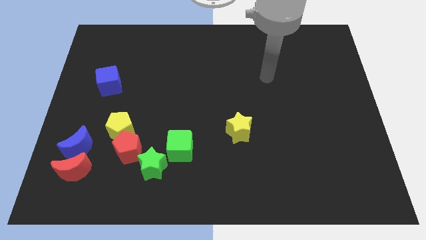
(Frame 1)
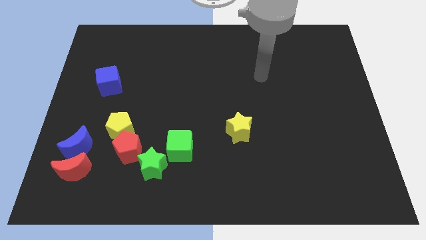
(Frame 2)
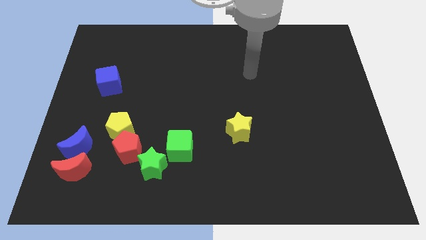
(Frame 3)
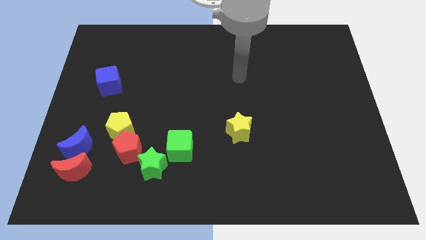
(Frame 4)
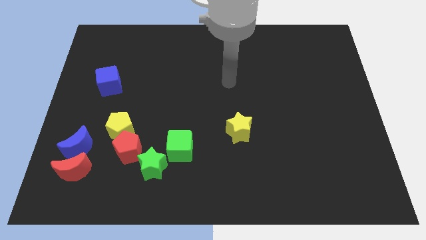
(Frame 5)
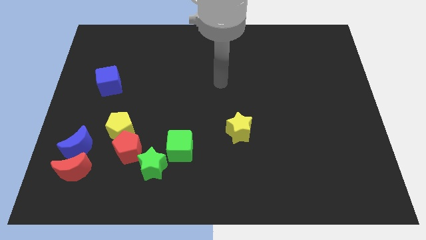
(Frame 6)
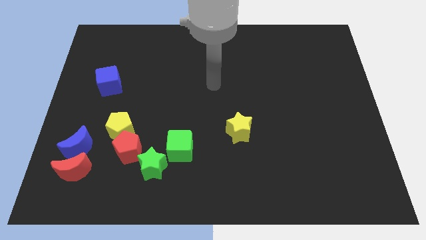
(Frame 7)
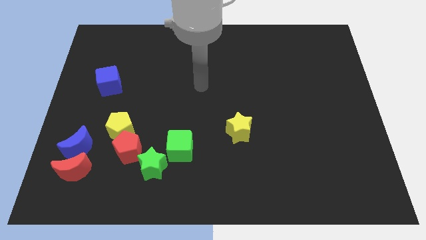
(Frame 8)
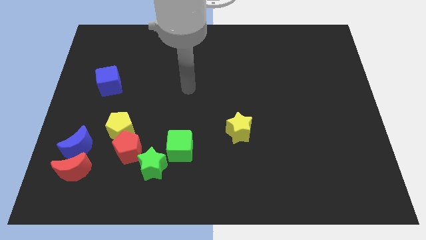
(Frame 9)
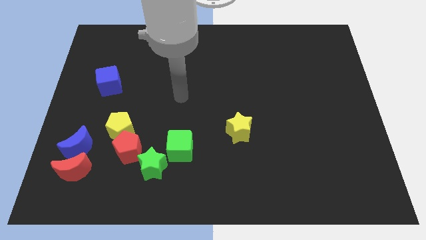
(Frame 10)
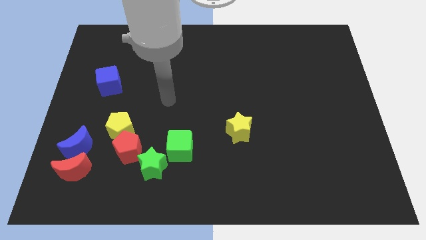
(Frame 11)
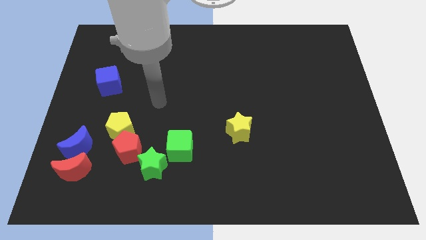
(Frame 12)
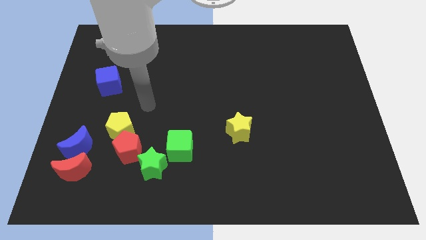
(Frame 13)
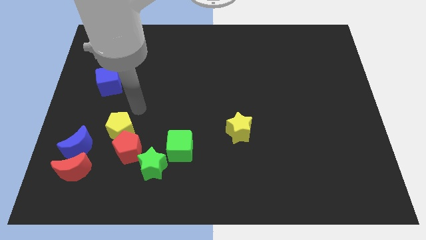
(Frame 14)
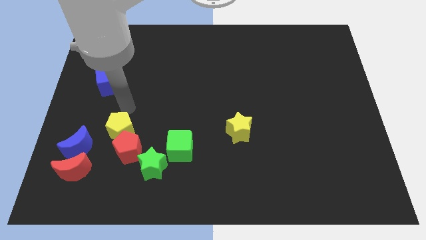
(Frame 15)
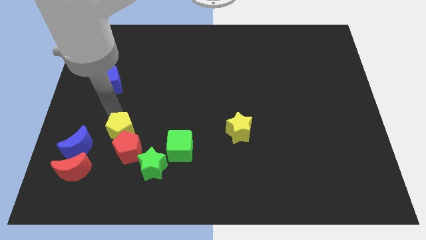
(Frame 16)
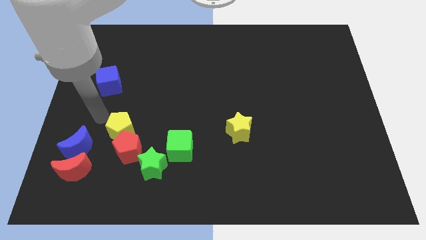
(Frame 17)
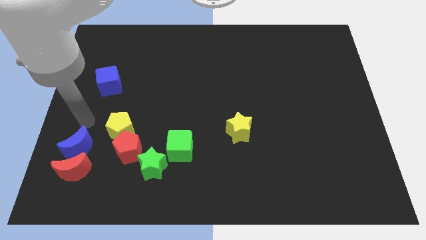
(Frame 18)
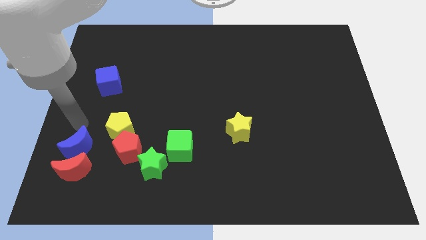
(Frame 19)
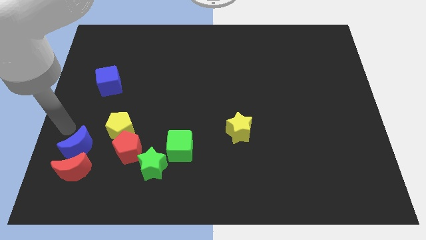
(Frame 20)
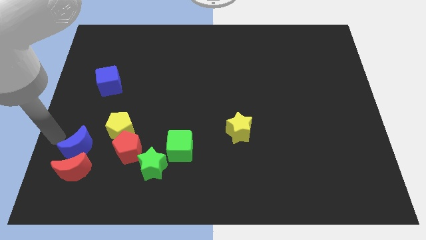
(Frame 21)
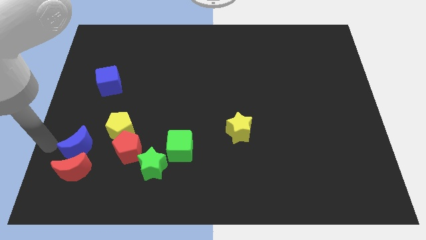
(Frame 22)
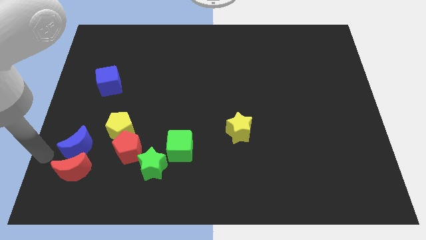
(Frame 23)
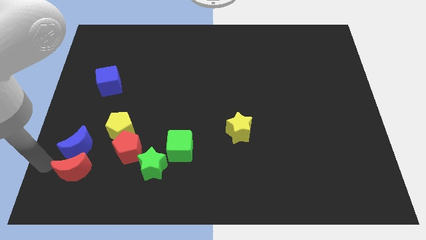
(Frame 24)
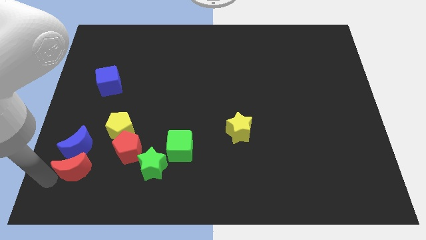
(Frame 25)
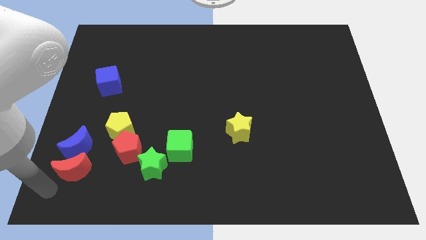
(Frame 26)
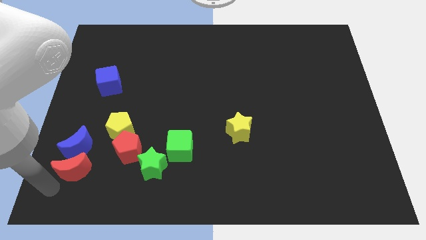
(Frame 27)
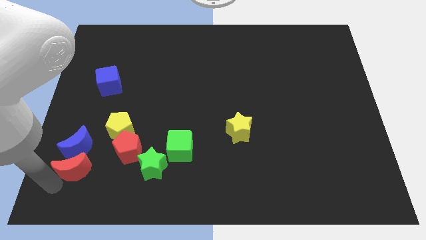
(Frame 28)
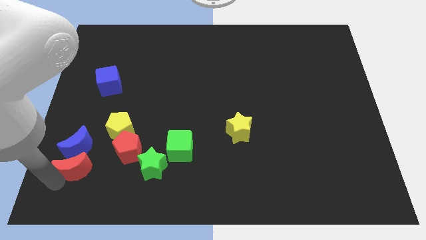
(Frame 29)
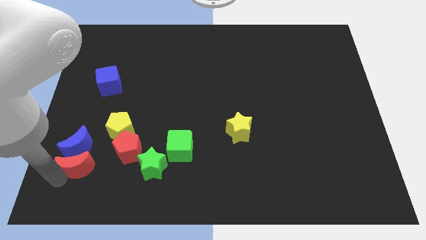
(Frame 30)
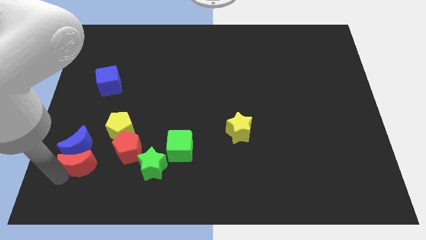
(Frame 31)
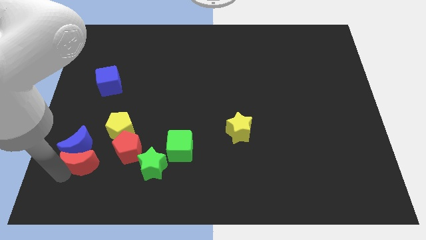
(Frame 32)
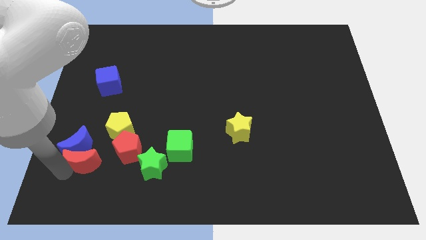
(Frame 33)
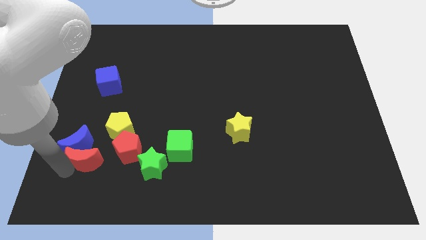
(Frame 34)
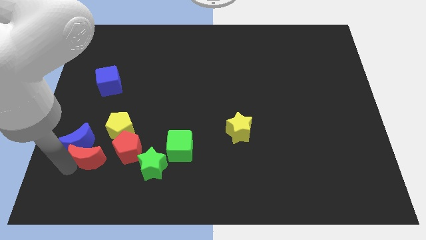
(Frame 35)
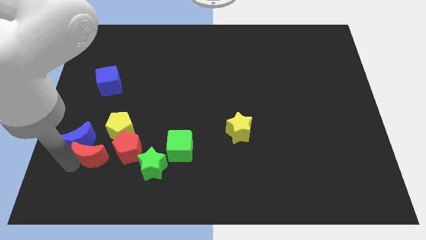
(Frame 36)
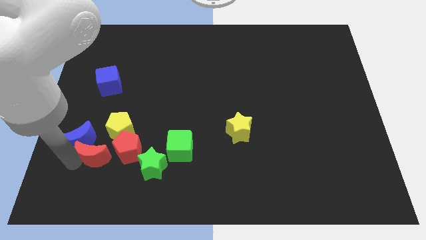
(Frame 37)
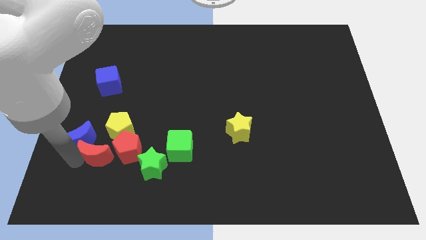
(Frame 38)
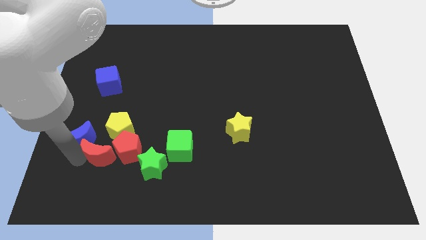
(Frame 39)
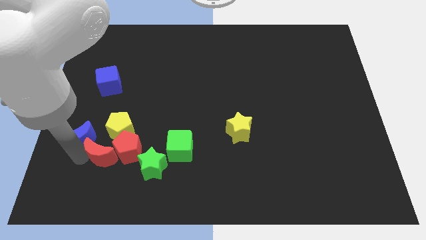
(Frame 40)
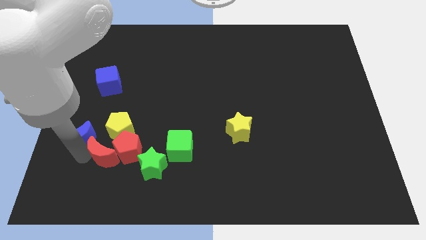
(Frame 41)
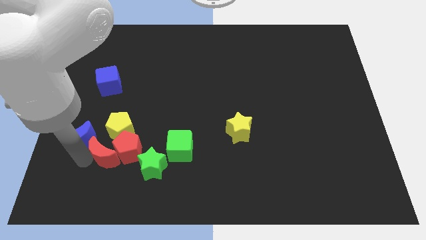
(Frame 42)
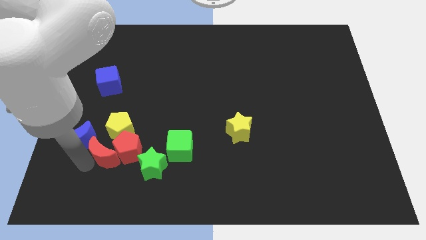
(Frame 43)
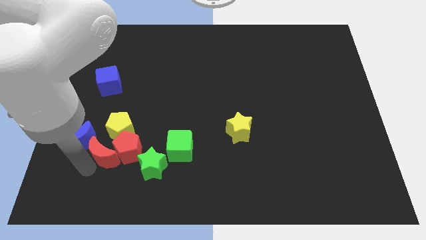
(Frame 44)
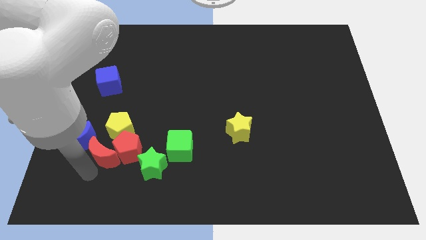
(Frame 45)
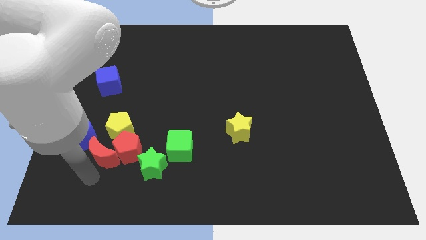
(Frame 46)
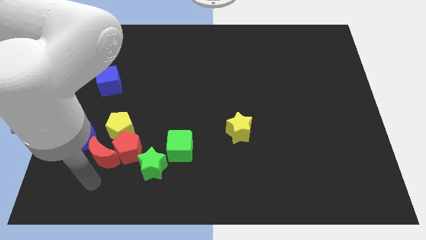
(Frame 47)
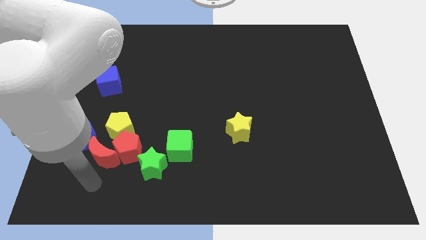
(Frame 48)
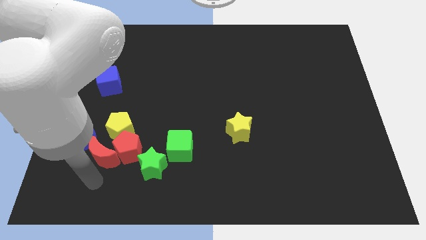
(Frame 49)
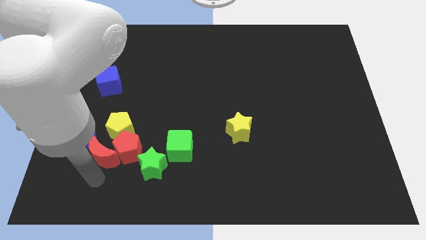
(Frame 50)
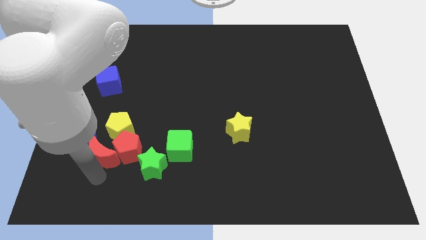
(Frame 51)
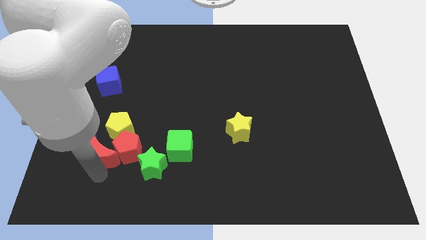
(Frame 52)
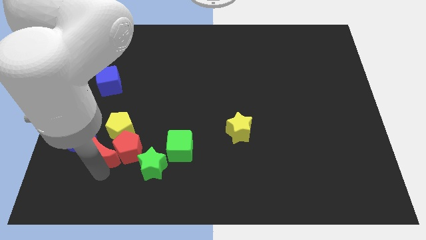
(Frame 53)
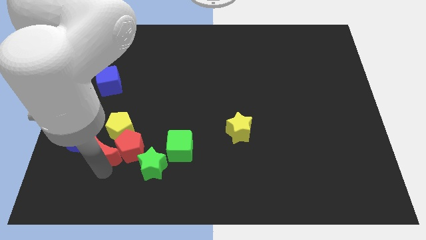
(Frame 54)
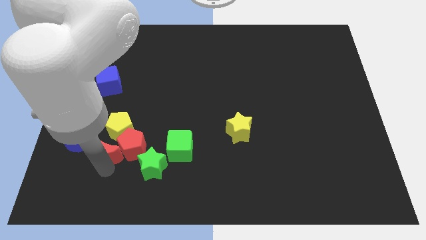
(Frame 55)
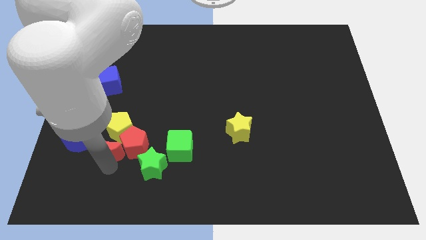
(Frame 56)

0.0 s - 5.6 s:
move the red moon close to the yellow pentagon

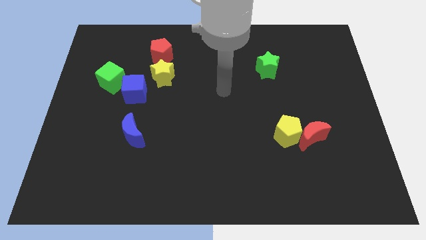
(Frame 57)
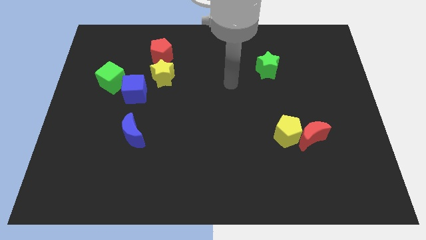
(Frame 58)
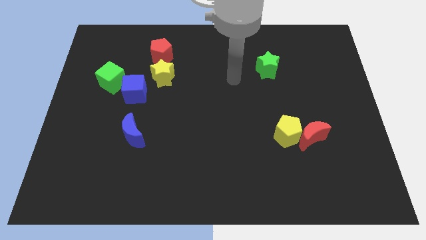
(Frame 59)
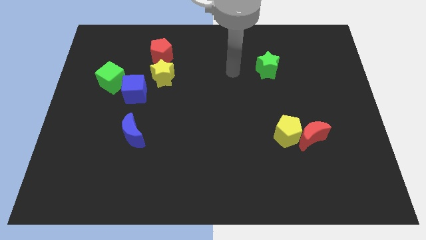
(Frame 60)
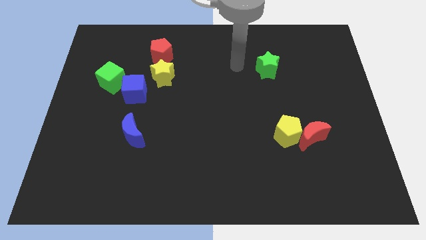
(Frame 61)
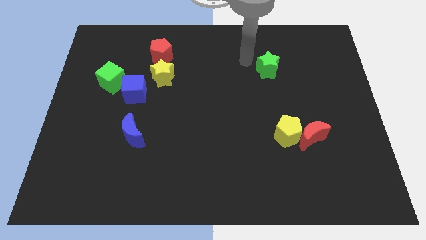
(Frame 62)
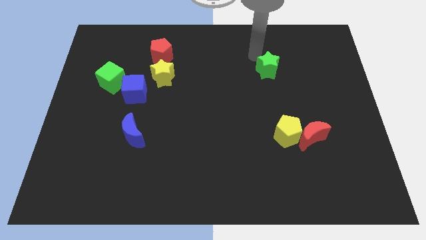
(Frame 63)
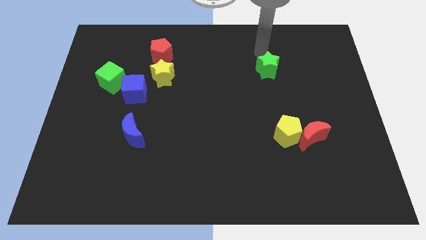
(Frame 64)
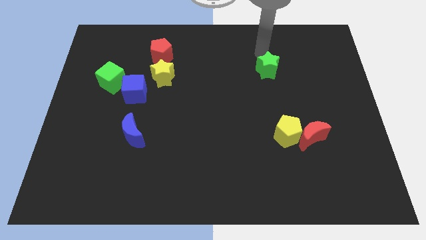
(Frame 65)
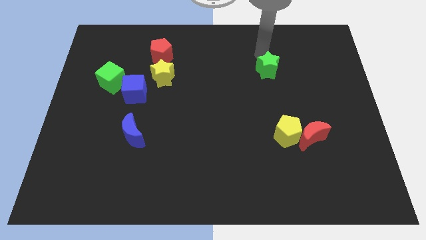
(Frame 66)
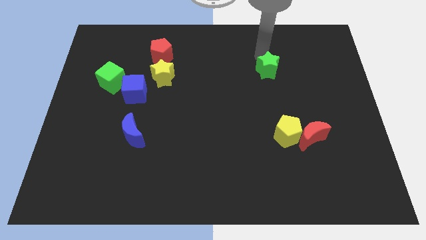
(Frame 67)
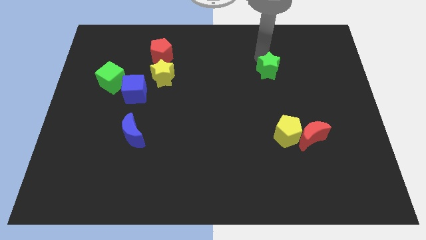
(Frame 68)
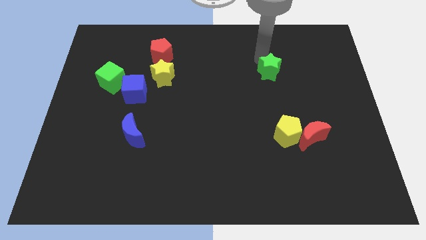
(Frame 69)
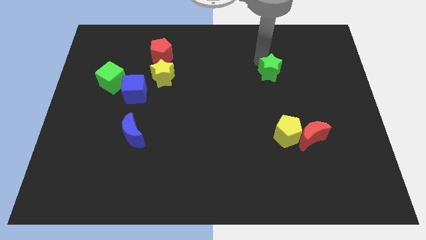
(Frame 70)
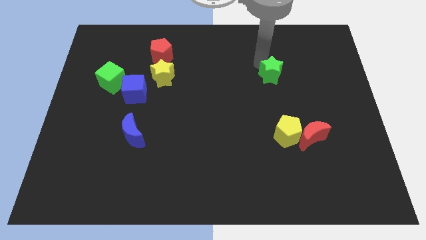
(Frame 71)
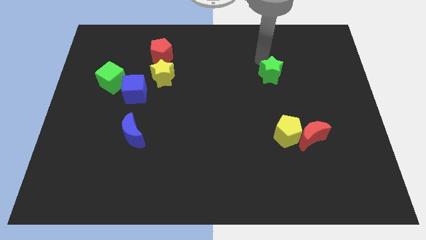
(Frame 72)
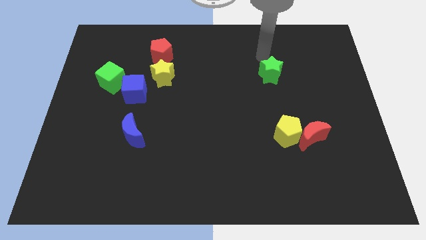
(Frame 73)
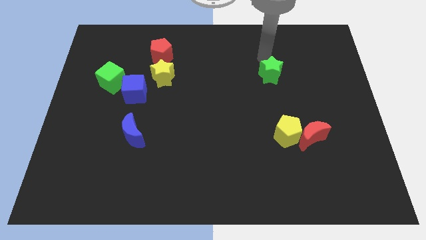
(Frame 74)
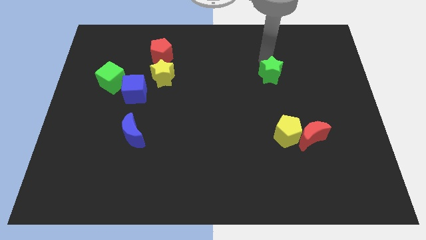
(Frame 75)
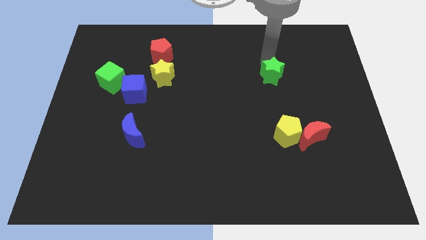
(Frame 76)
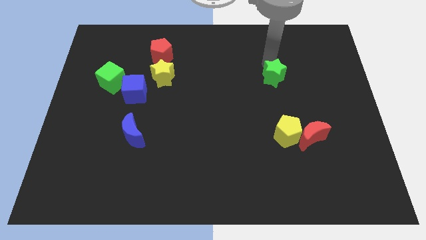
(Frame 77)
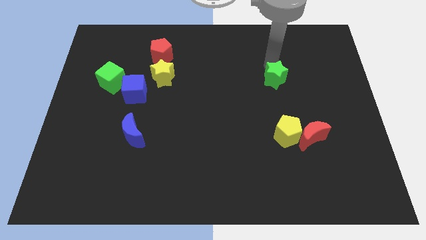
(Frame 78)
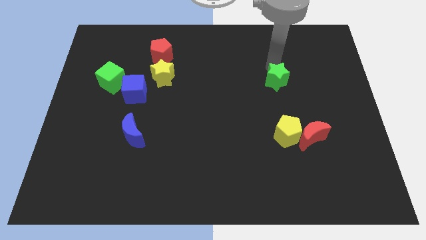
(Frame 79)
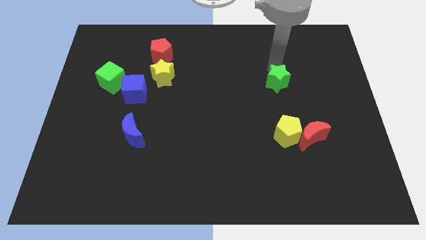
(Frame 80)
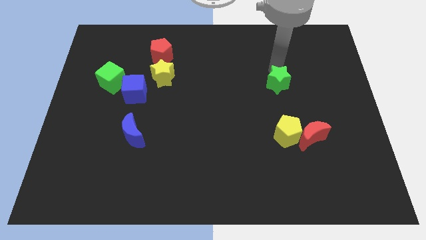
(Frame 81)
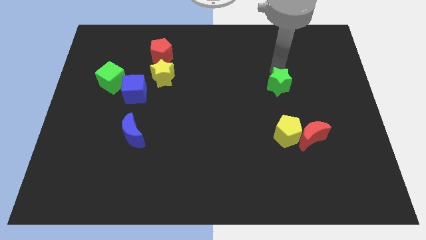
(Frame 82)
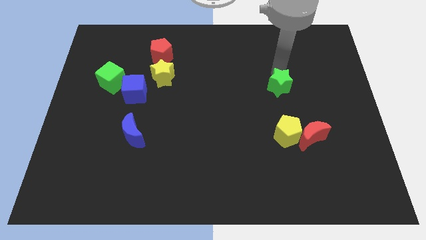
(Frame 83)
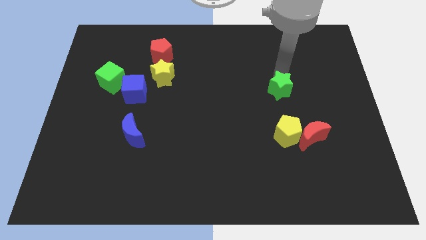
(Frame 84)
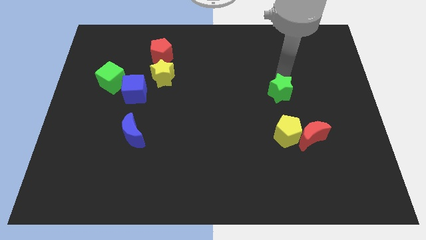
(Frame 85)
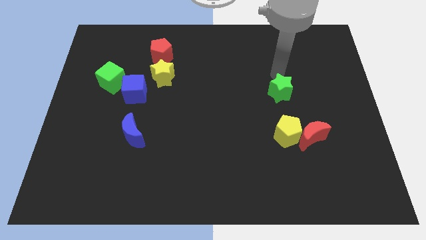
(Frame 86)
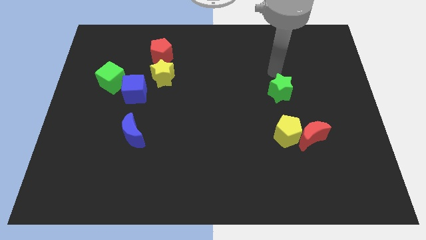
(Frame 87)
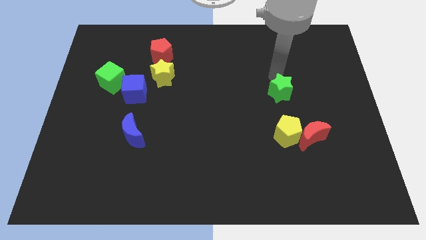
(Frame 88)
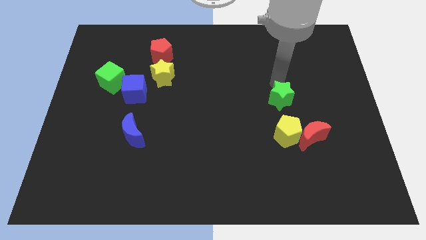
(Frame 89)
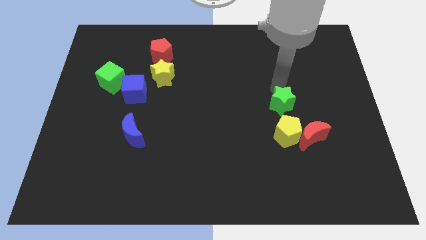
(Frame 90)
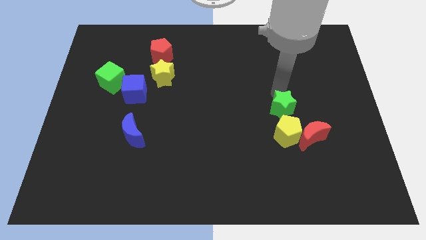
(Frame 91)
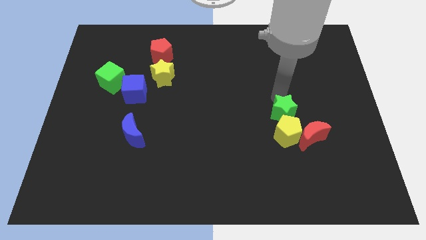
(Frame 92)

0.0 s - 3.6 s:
put the green star to the yellow pentagon
